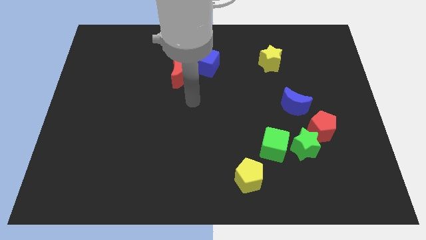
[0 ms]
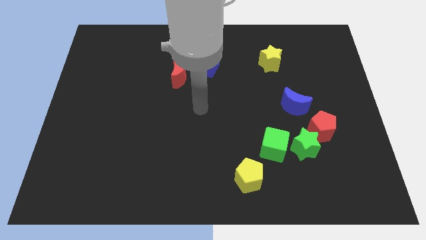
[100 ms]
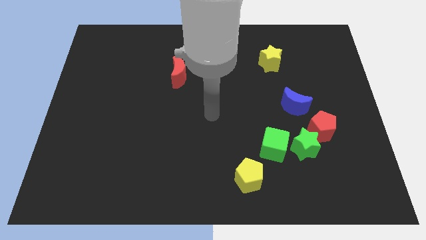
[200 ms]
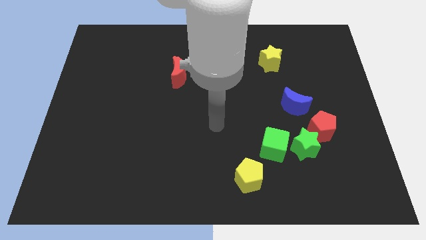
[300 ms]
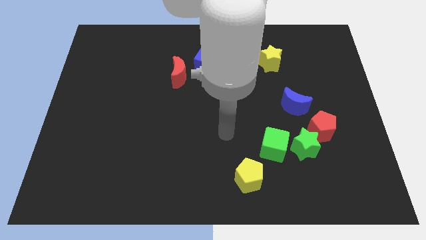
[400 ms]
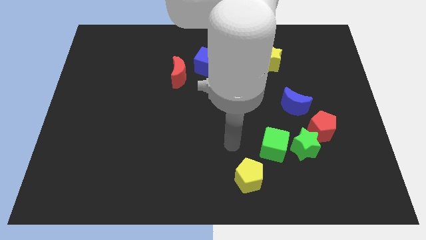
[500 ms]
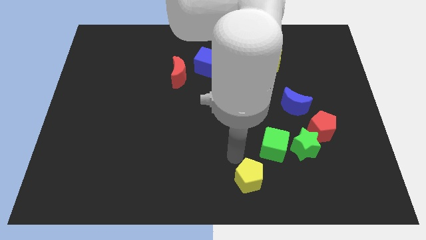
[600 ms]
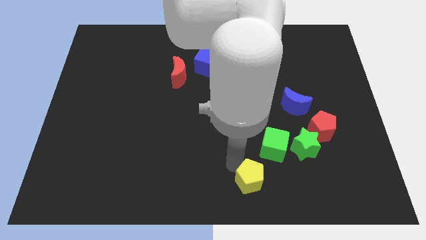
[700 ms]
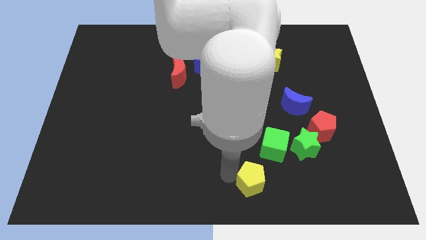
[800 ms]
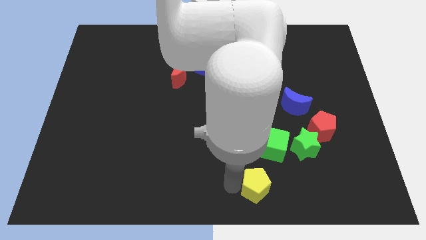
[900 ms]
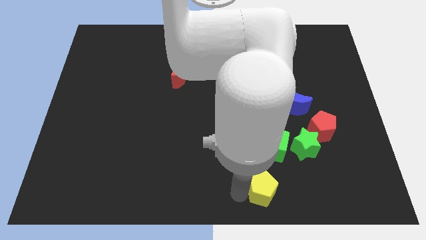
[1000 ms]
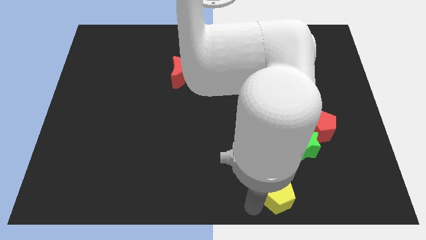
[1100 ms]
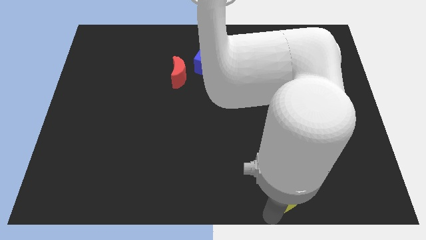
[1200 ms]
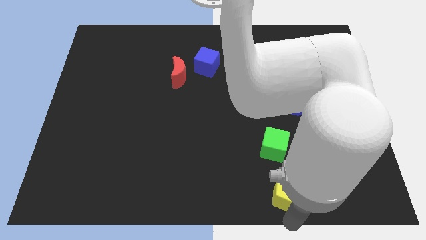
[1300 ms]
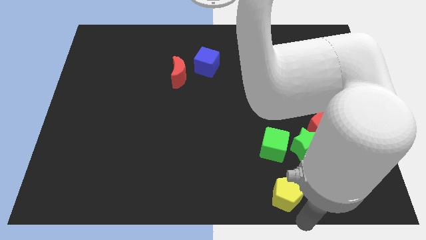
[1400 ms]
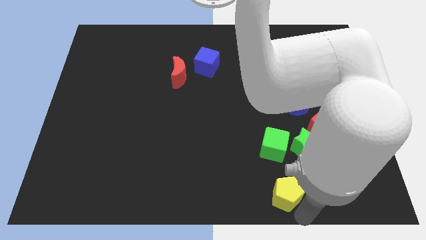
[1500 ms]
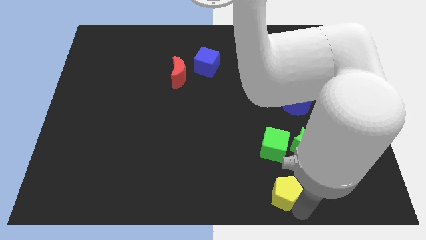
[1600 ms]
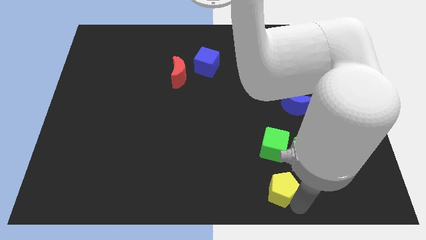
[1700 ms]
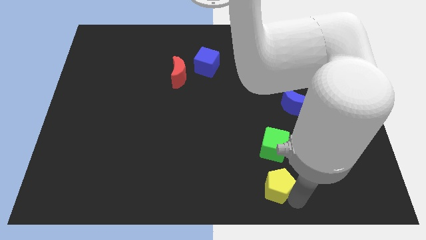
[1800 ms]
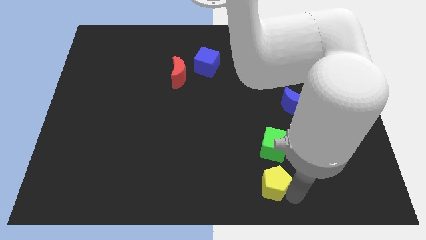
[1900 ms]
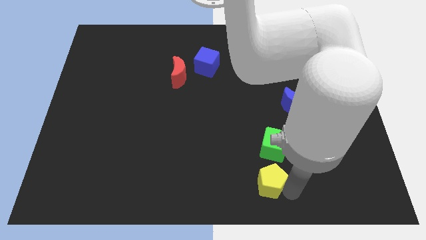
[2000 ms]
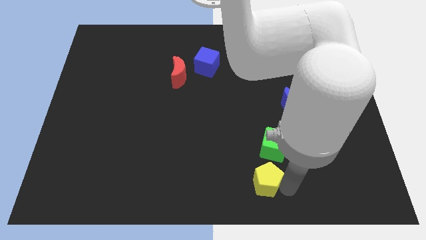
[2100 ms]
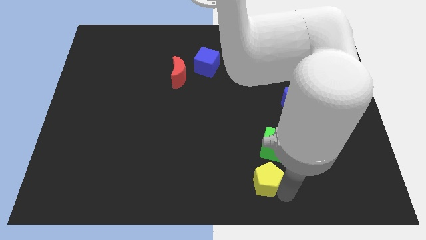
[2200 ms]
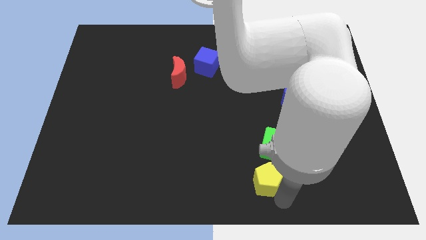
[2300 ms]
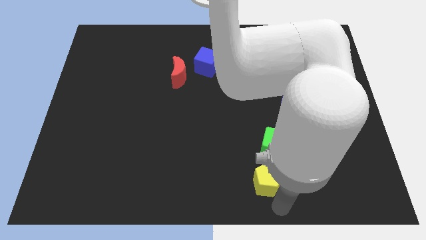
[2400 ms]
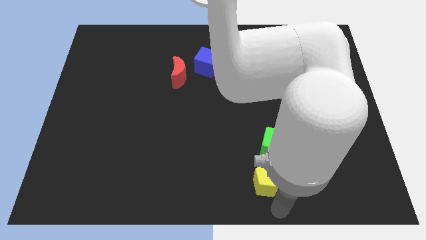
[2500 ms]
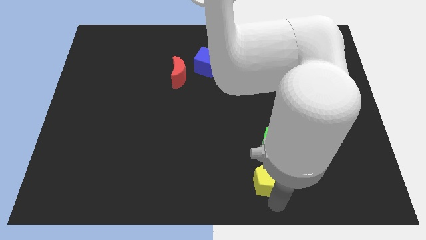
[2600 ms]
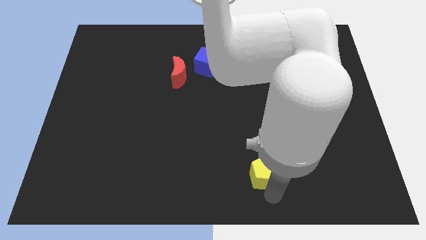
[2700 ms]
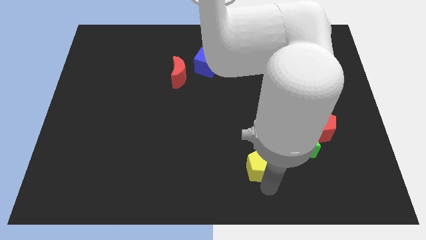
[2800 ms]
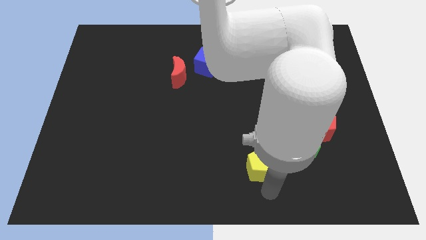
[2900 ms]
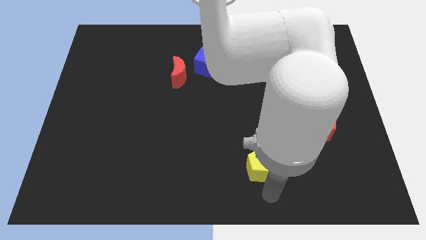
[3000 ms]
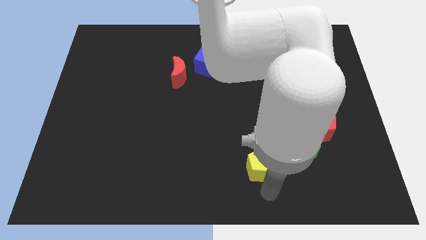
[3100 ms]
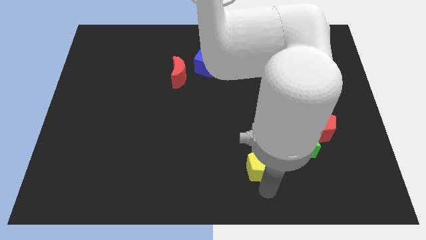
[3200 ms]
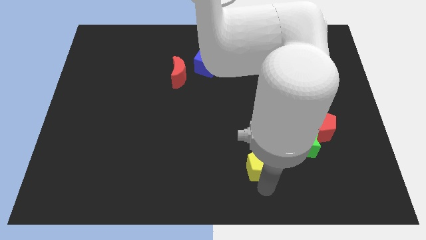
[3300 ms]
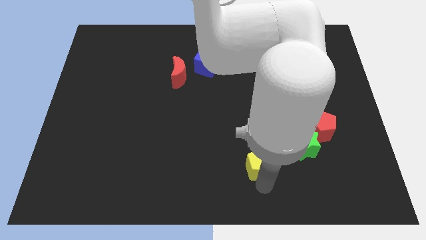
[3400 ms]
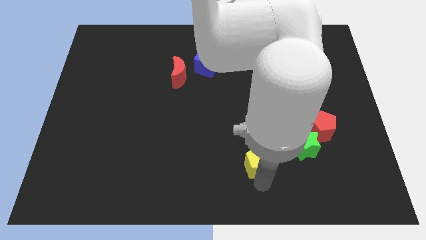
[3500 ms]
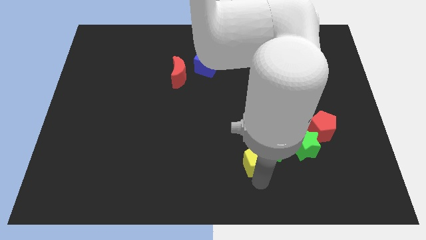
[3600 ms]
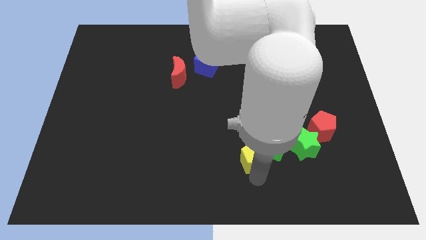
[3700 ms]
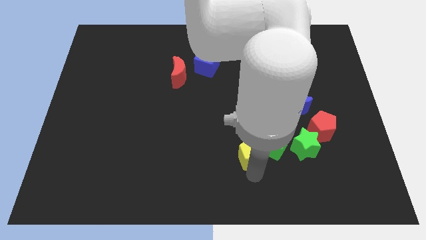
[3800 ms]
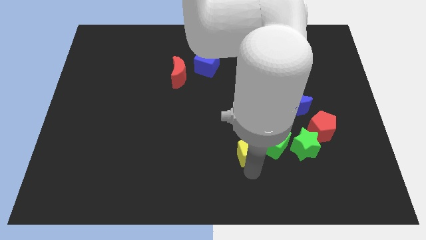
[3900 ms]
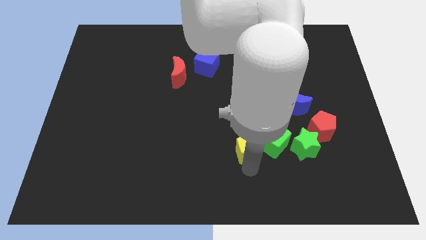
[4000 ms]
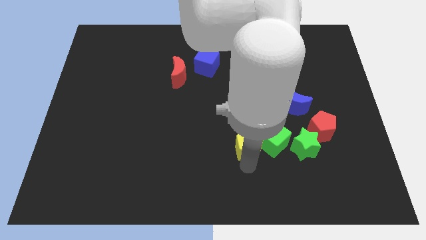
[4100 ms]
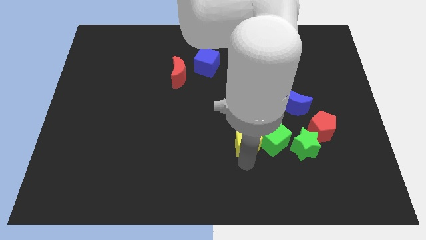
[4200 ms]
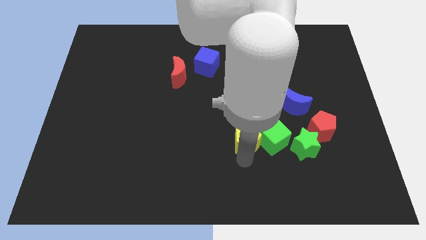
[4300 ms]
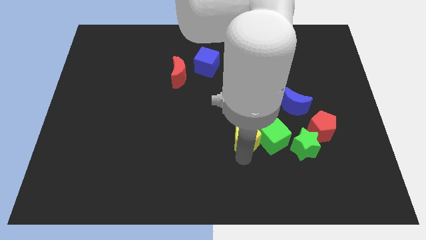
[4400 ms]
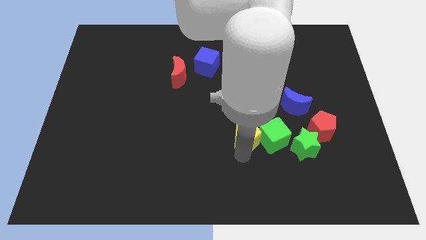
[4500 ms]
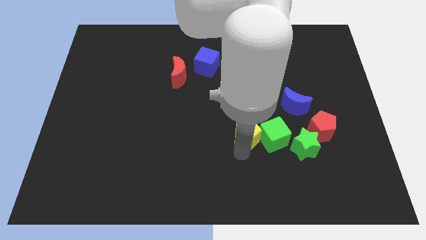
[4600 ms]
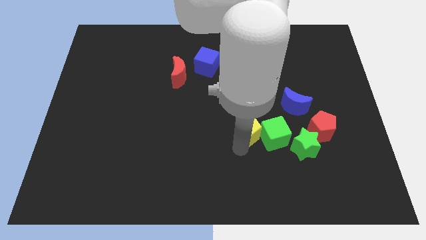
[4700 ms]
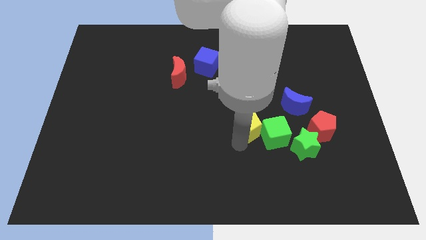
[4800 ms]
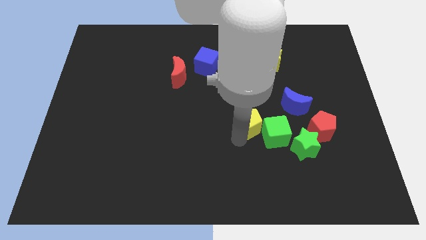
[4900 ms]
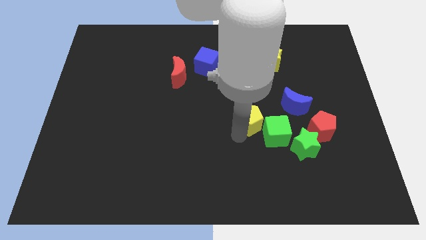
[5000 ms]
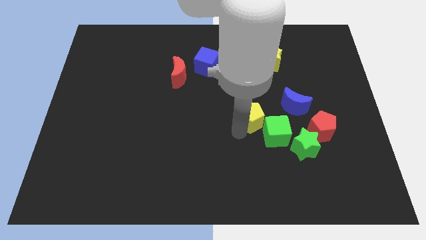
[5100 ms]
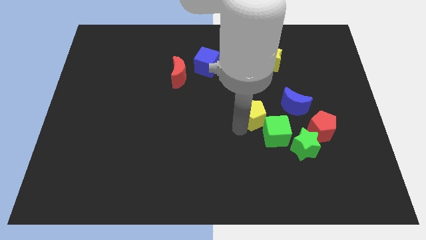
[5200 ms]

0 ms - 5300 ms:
push the yellow pentagon above the green cube

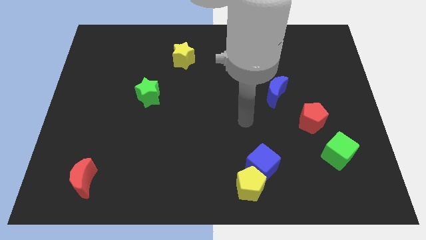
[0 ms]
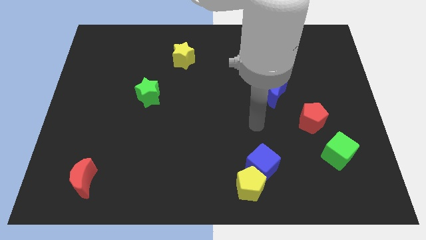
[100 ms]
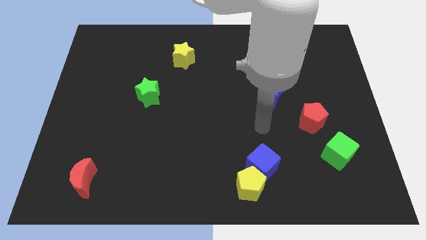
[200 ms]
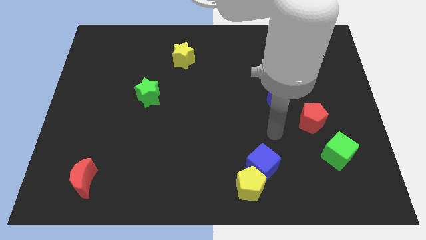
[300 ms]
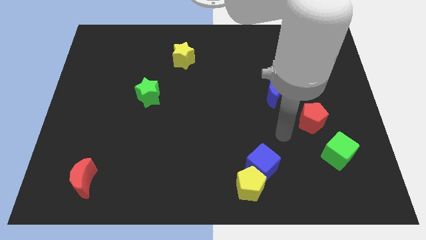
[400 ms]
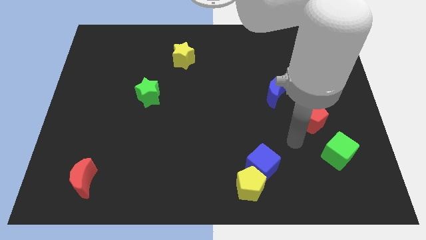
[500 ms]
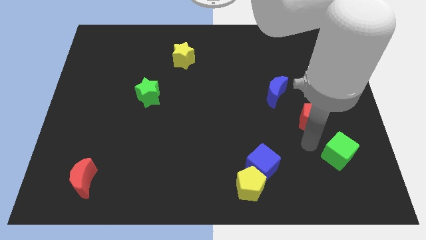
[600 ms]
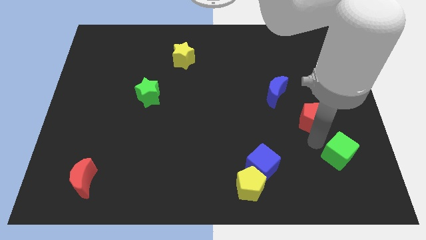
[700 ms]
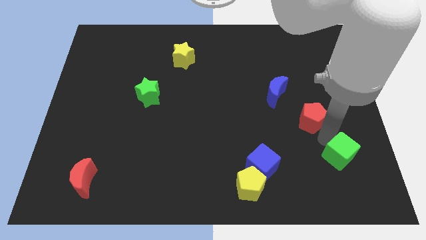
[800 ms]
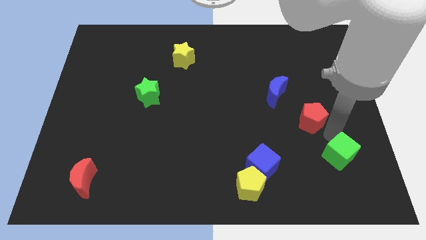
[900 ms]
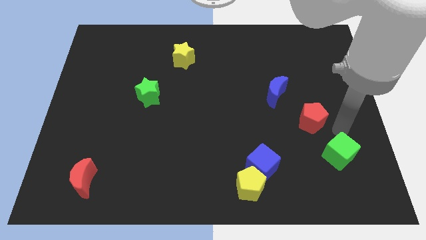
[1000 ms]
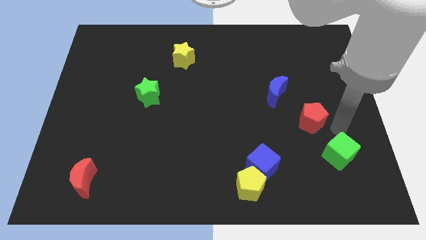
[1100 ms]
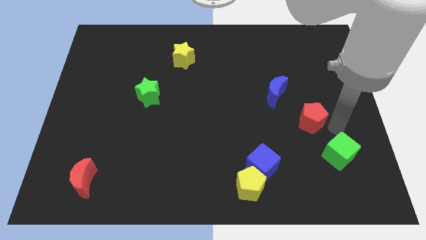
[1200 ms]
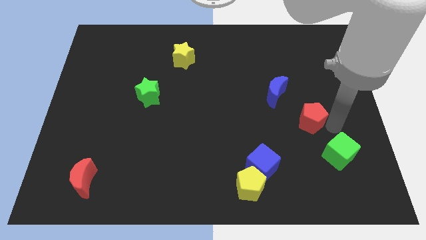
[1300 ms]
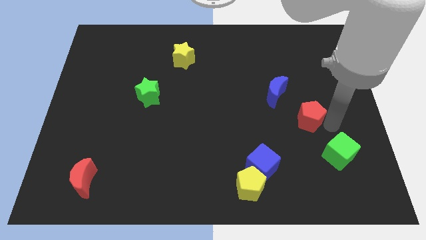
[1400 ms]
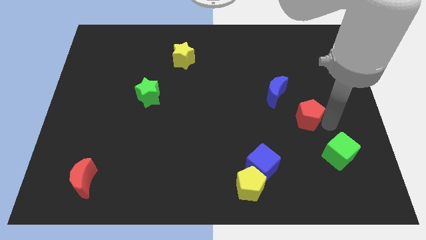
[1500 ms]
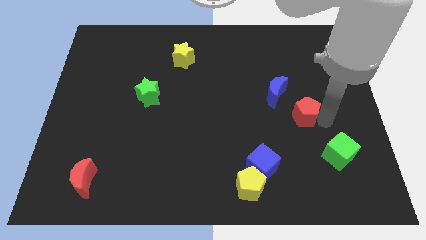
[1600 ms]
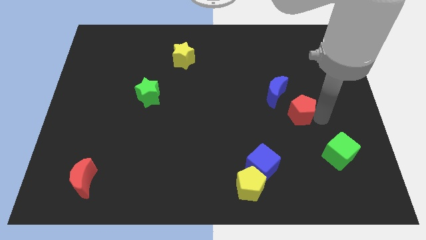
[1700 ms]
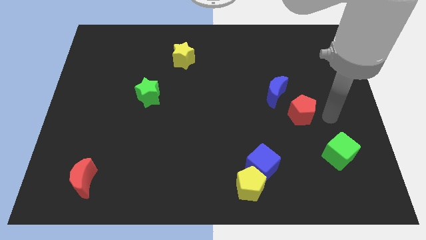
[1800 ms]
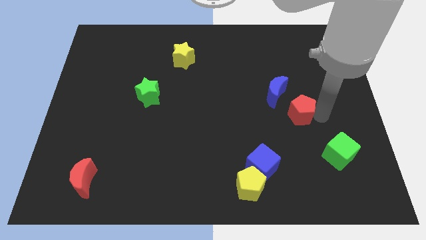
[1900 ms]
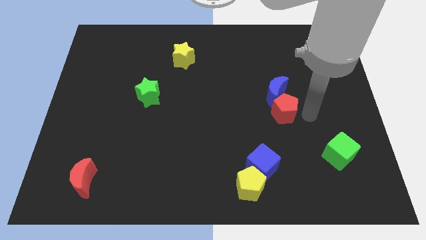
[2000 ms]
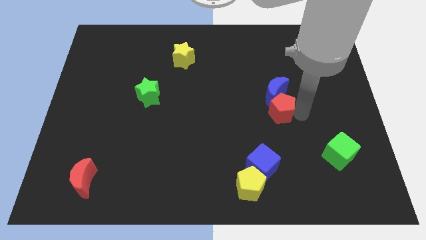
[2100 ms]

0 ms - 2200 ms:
push the red pentagon to the bottom left side of the blue moon
